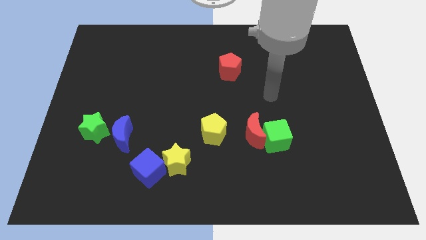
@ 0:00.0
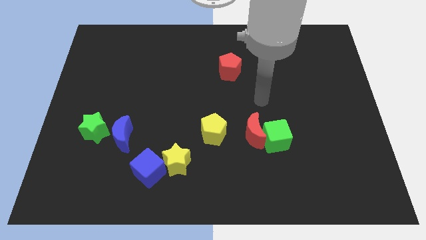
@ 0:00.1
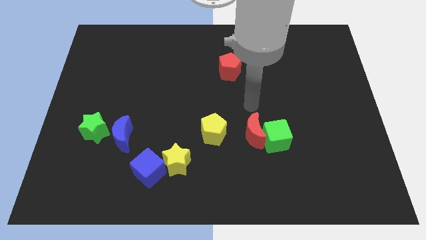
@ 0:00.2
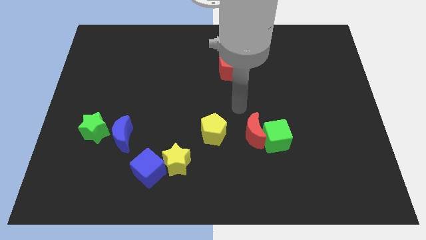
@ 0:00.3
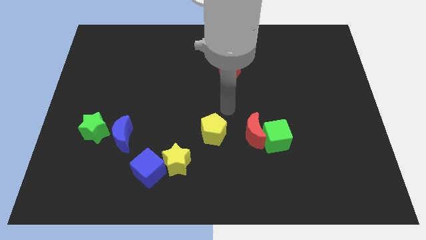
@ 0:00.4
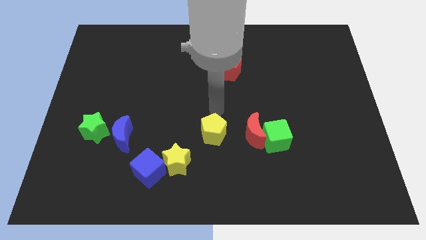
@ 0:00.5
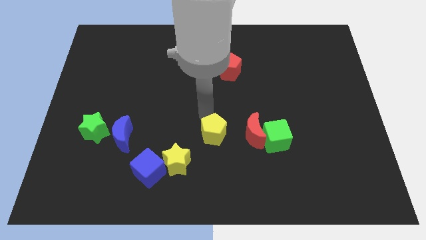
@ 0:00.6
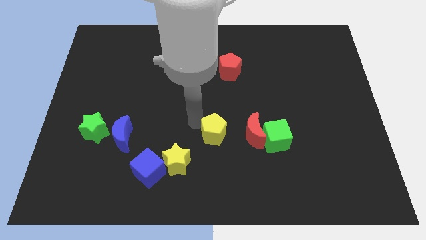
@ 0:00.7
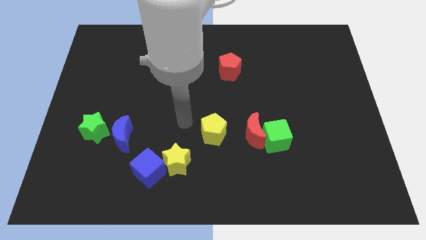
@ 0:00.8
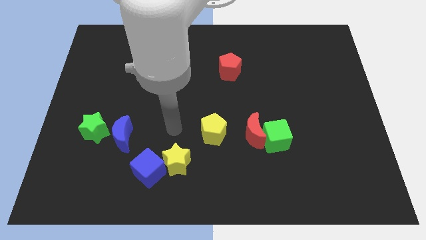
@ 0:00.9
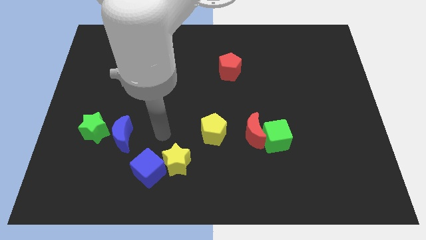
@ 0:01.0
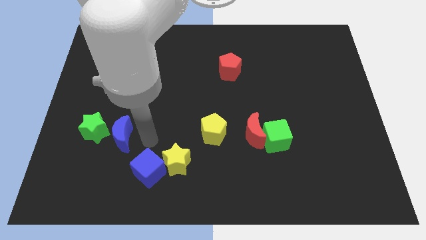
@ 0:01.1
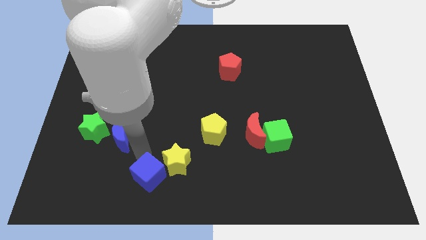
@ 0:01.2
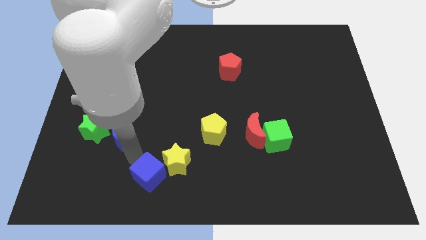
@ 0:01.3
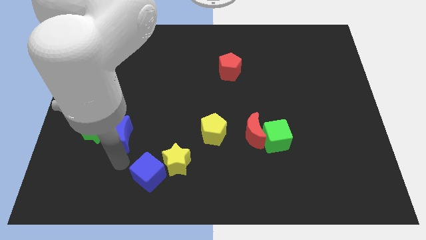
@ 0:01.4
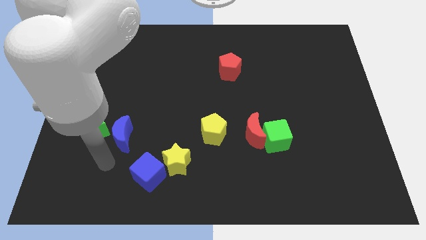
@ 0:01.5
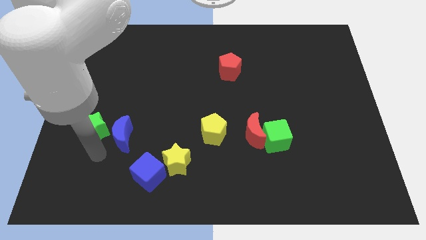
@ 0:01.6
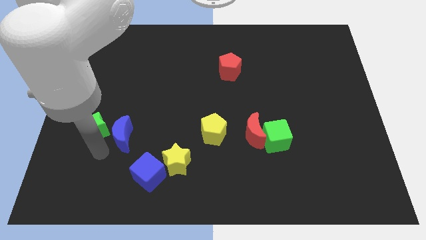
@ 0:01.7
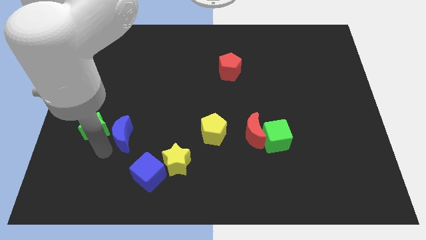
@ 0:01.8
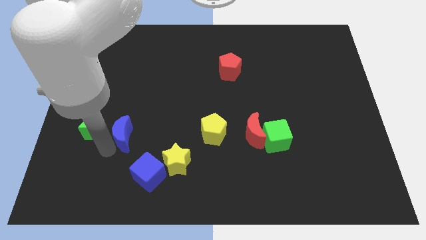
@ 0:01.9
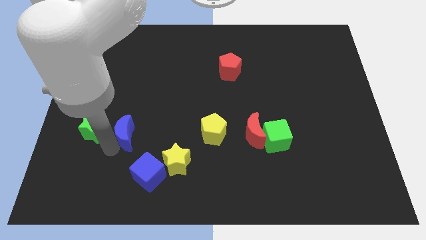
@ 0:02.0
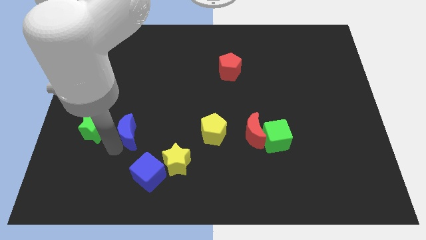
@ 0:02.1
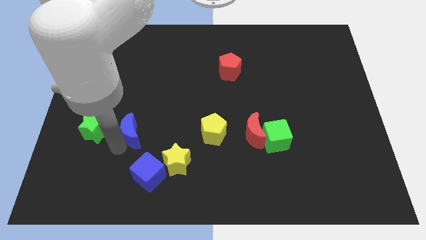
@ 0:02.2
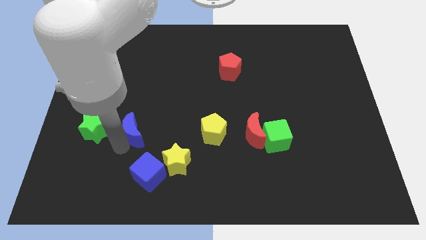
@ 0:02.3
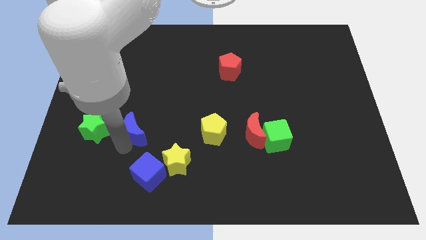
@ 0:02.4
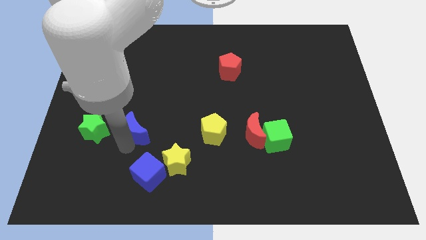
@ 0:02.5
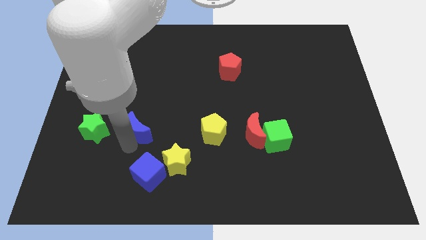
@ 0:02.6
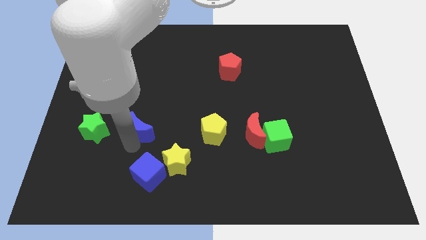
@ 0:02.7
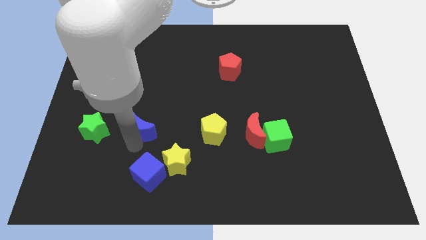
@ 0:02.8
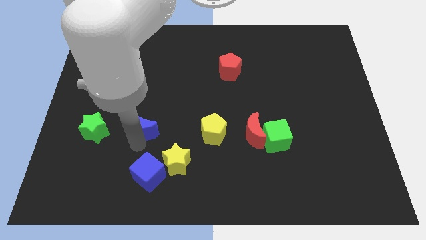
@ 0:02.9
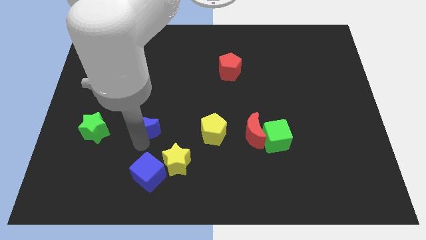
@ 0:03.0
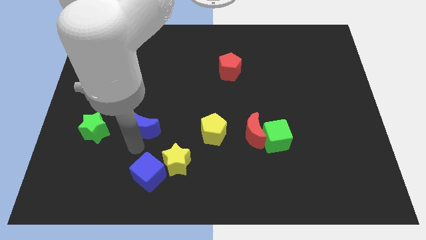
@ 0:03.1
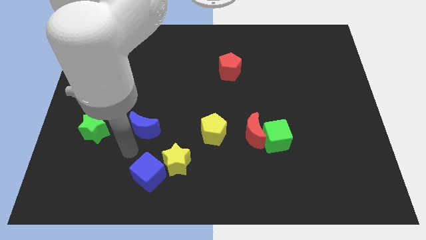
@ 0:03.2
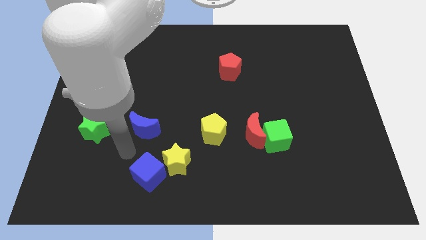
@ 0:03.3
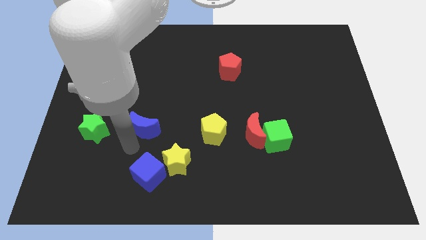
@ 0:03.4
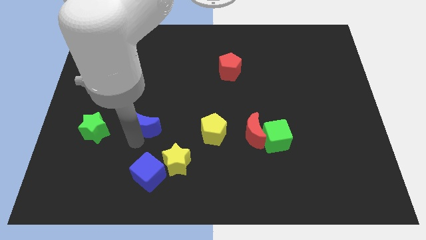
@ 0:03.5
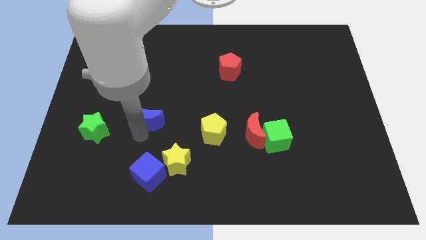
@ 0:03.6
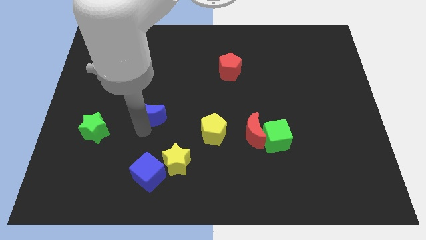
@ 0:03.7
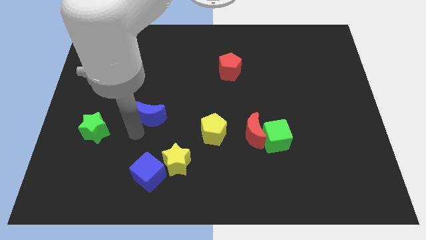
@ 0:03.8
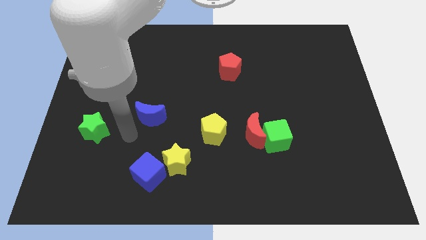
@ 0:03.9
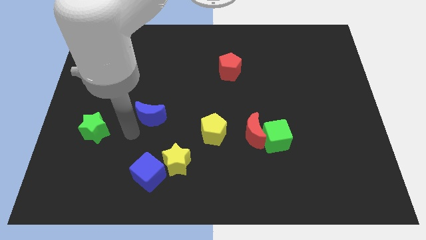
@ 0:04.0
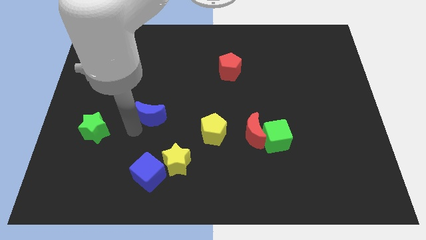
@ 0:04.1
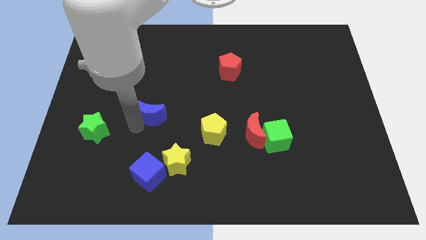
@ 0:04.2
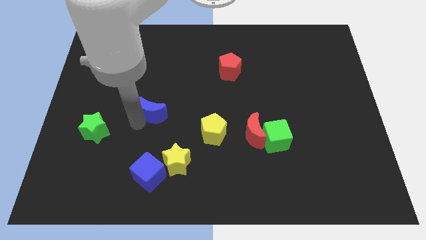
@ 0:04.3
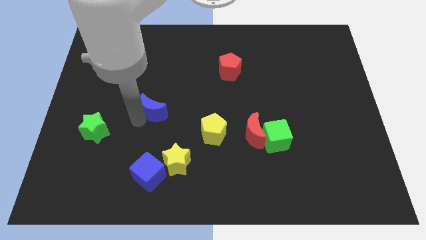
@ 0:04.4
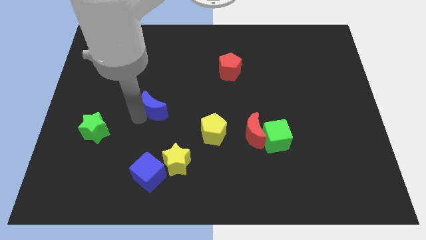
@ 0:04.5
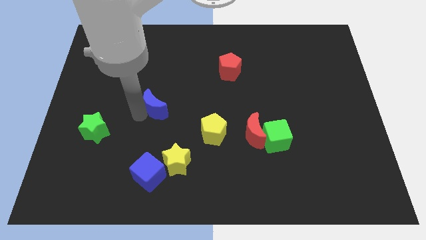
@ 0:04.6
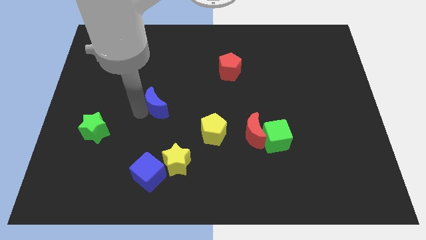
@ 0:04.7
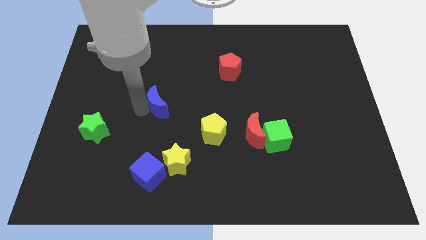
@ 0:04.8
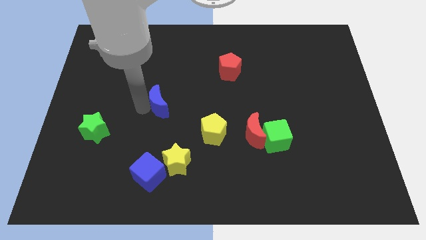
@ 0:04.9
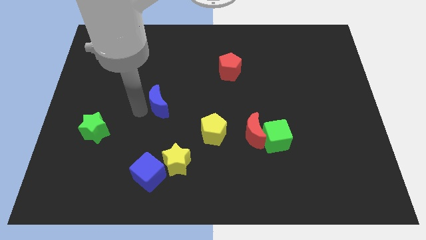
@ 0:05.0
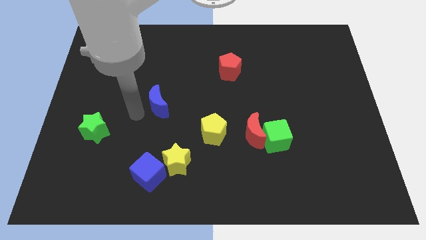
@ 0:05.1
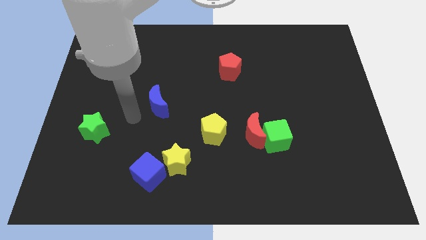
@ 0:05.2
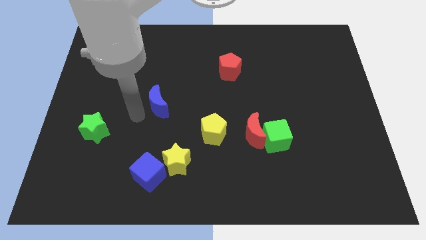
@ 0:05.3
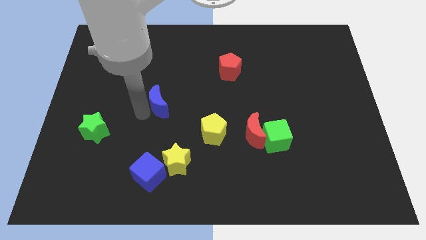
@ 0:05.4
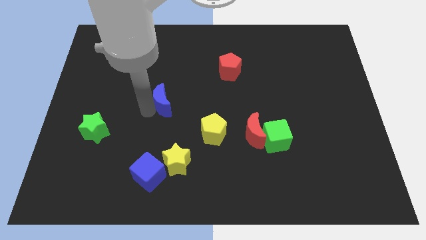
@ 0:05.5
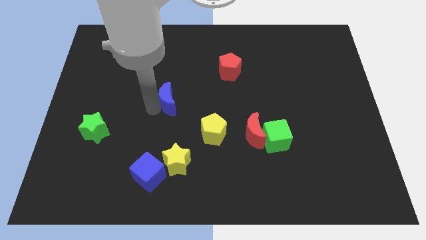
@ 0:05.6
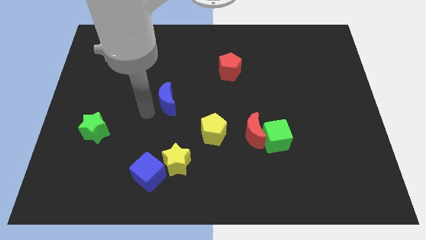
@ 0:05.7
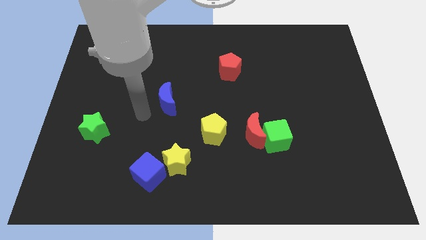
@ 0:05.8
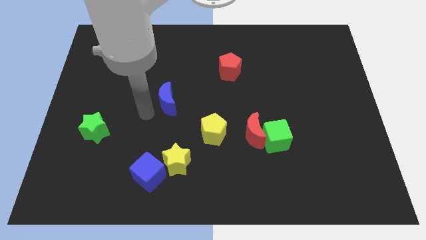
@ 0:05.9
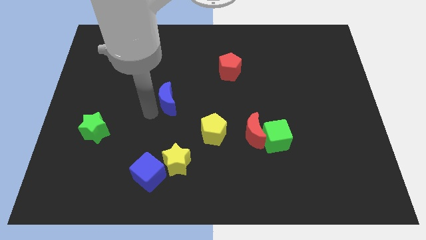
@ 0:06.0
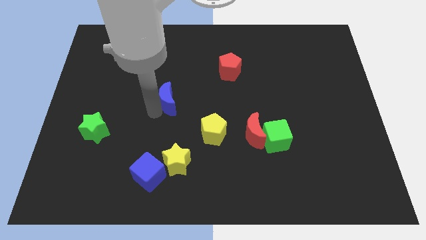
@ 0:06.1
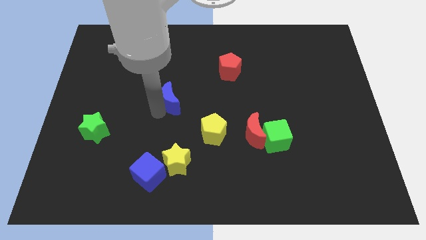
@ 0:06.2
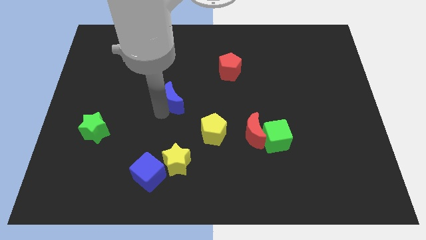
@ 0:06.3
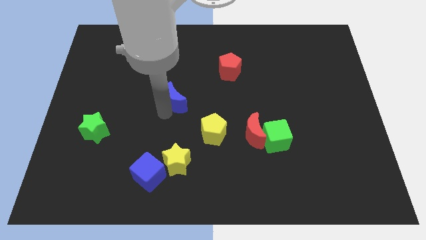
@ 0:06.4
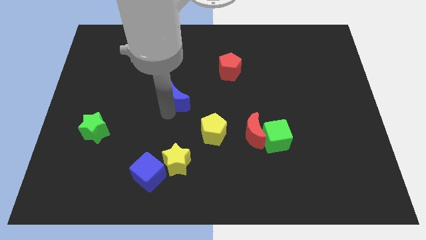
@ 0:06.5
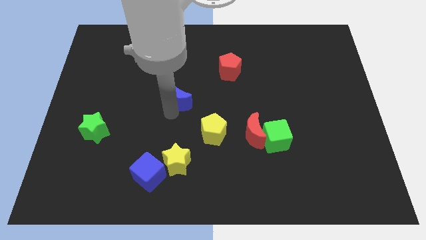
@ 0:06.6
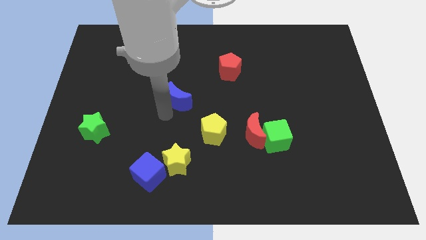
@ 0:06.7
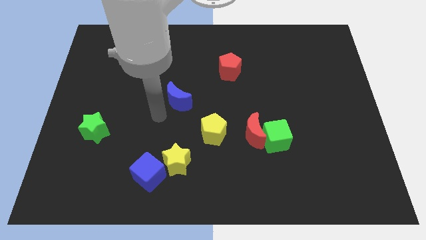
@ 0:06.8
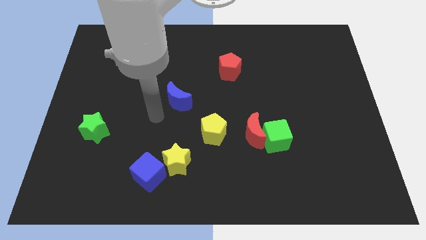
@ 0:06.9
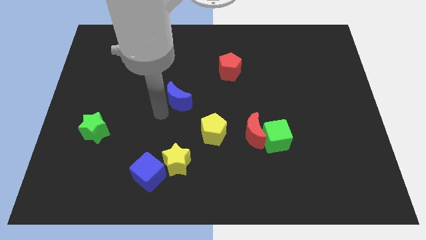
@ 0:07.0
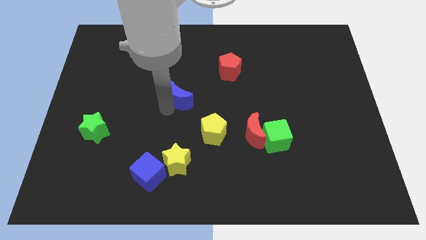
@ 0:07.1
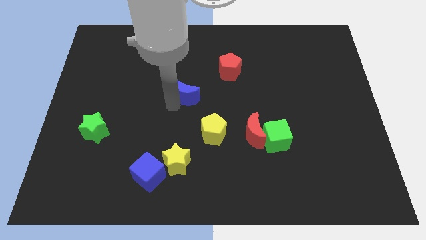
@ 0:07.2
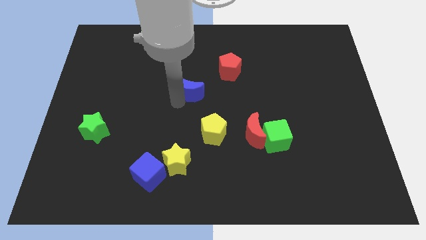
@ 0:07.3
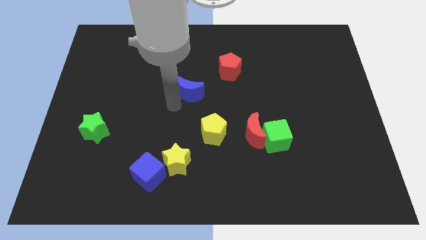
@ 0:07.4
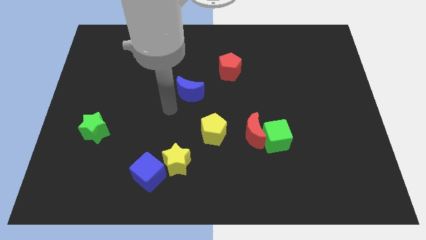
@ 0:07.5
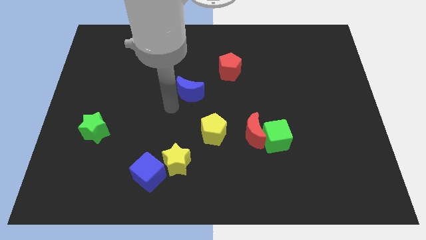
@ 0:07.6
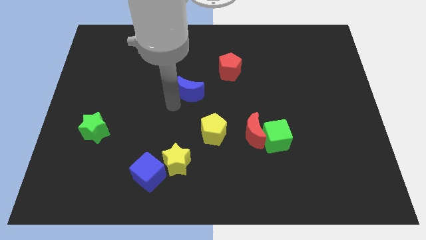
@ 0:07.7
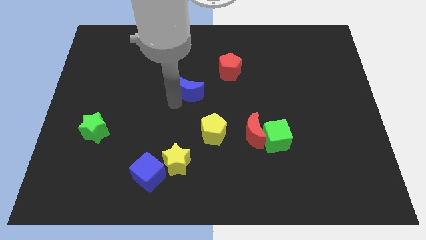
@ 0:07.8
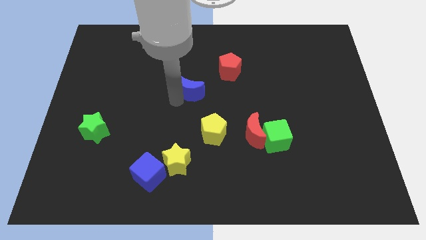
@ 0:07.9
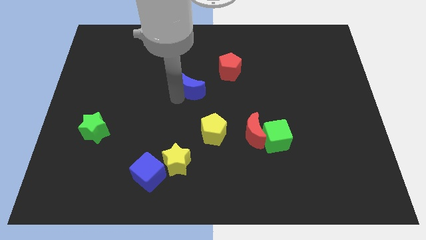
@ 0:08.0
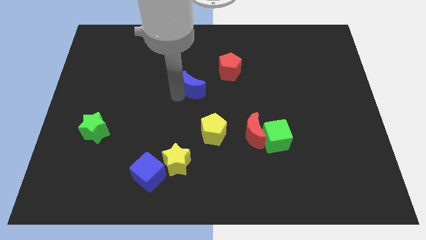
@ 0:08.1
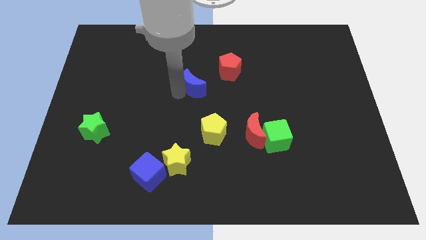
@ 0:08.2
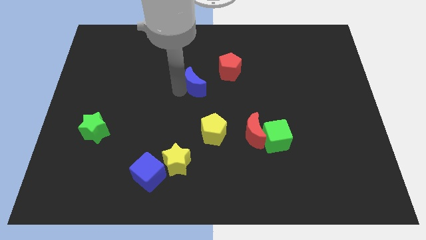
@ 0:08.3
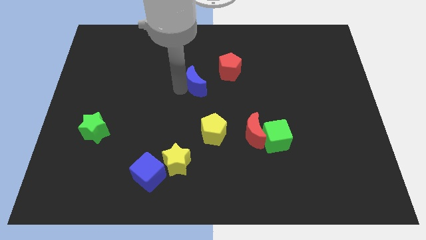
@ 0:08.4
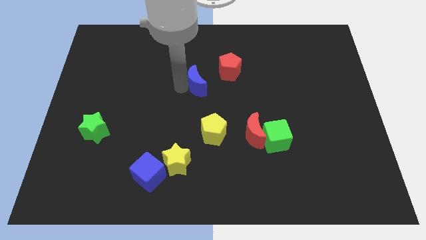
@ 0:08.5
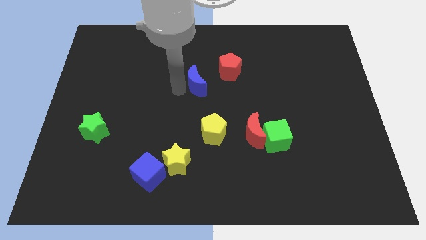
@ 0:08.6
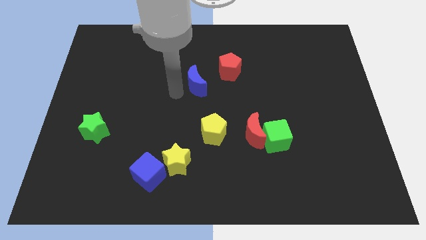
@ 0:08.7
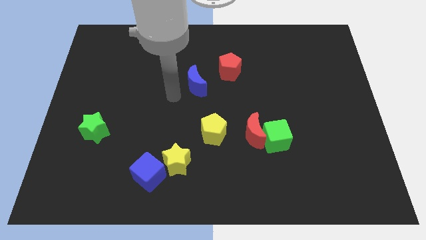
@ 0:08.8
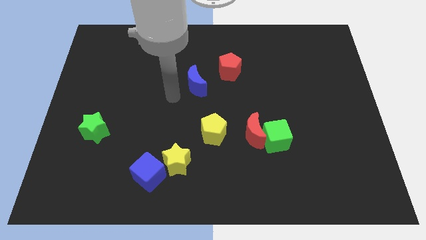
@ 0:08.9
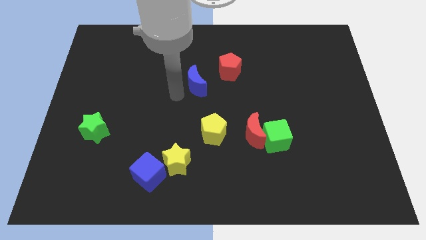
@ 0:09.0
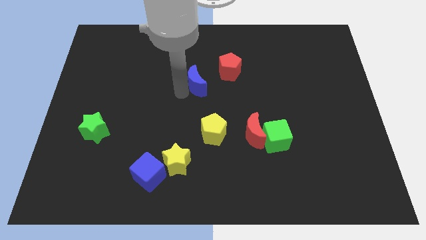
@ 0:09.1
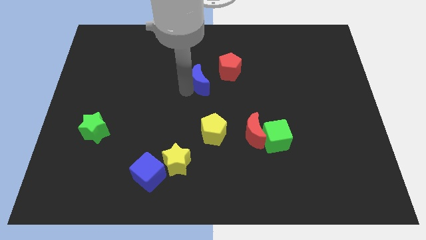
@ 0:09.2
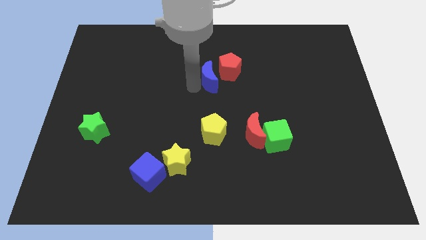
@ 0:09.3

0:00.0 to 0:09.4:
move the blue moon to the red pentagon
